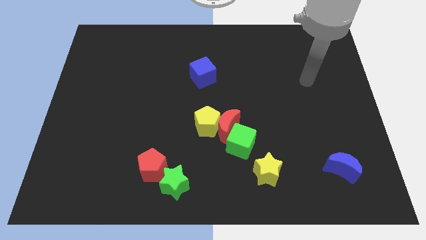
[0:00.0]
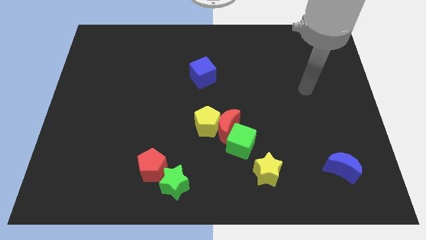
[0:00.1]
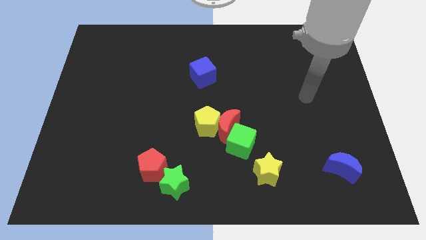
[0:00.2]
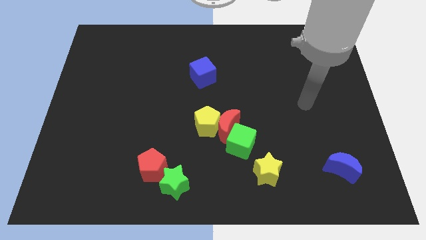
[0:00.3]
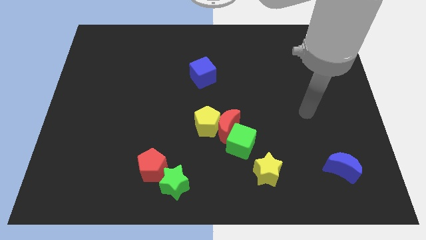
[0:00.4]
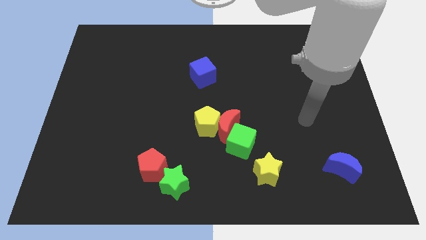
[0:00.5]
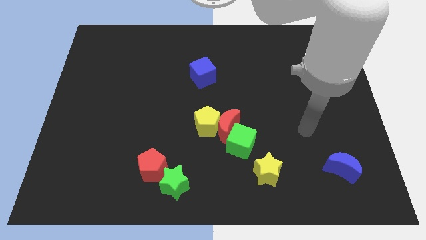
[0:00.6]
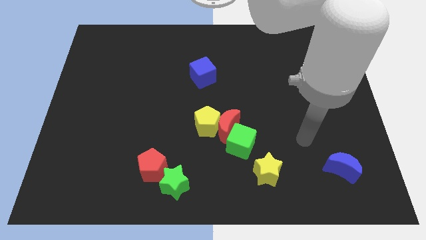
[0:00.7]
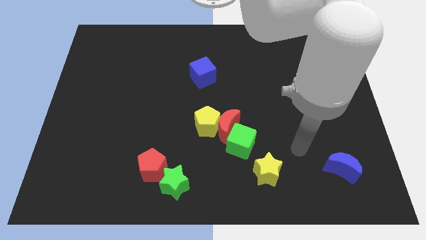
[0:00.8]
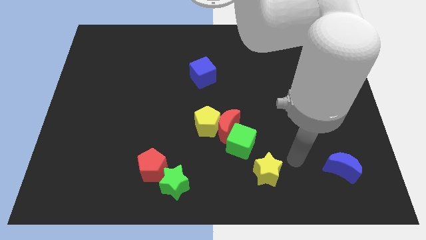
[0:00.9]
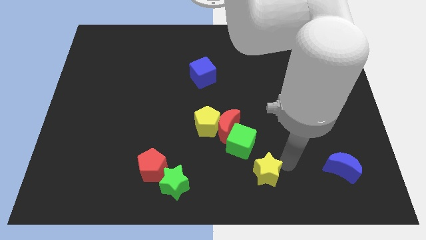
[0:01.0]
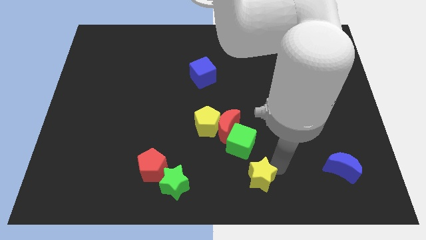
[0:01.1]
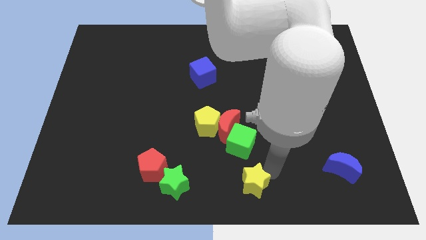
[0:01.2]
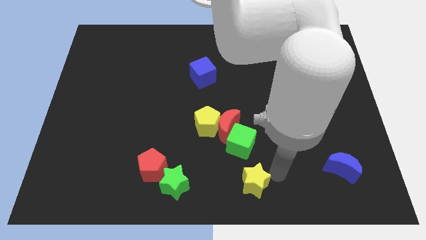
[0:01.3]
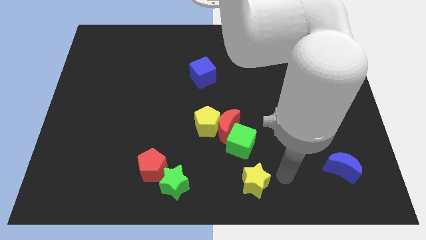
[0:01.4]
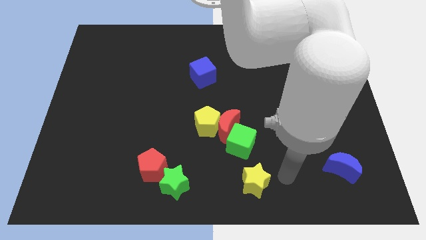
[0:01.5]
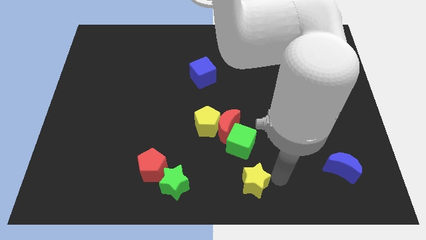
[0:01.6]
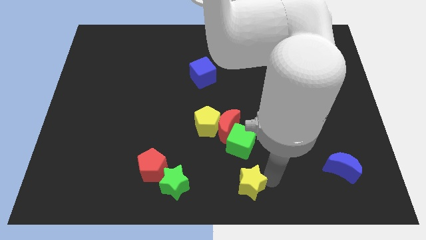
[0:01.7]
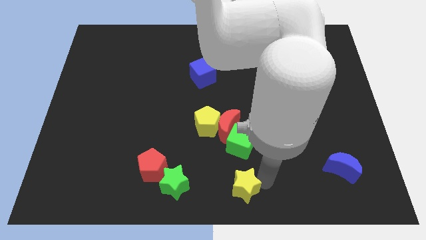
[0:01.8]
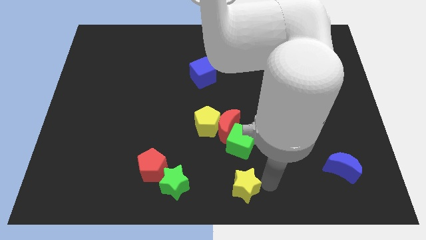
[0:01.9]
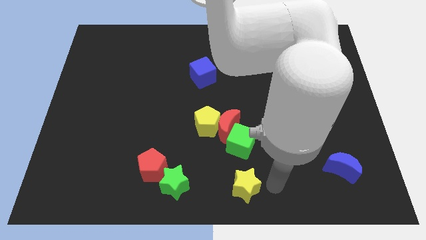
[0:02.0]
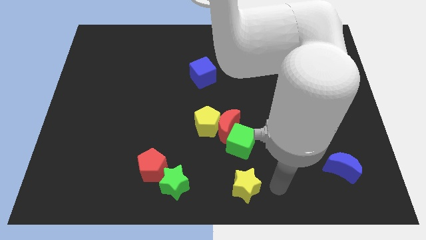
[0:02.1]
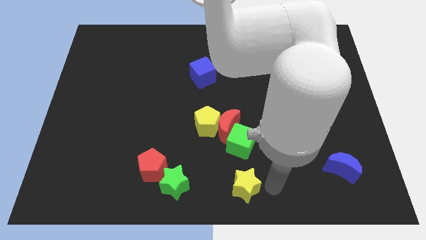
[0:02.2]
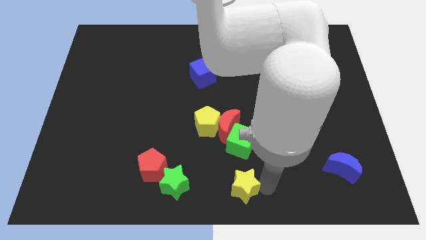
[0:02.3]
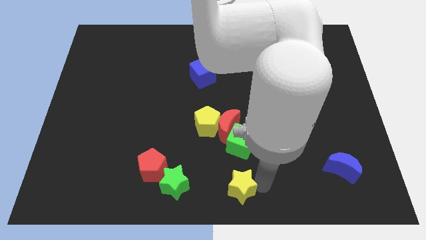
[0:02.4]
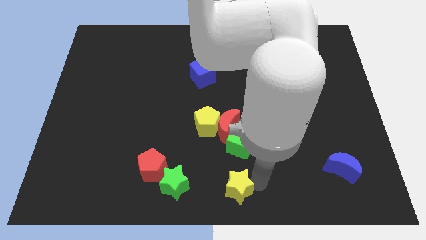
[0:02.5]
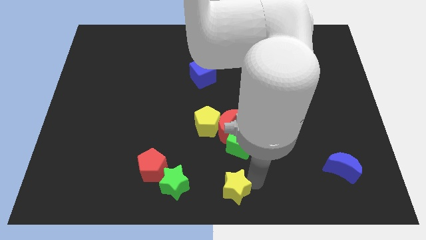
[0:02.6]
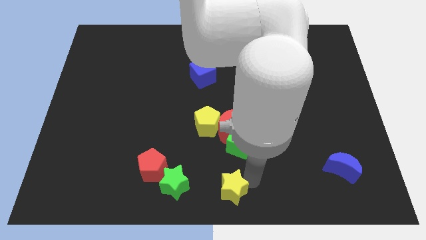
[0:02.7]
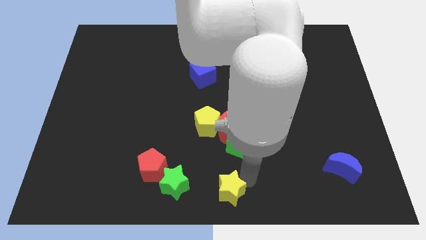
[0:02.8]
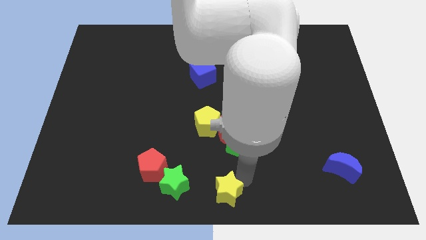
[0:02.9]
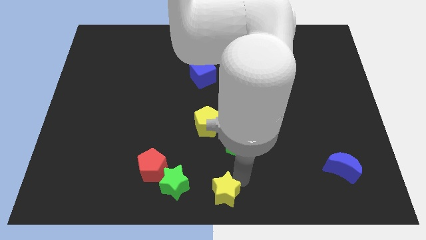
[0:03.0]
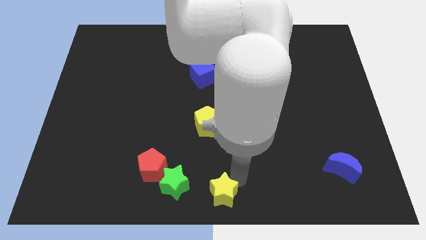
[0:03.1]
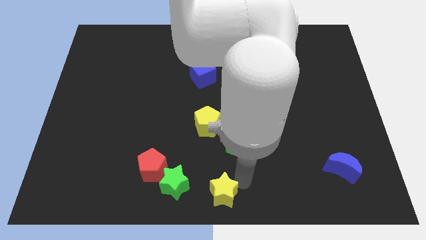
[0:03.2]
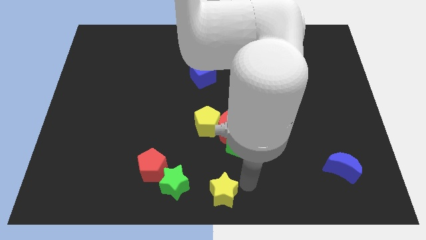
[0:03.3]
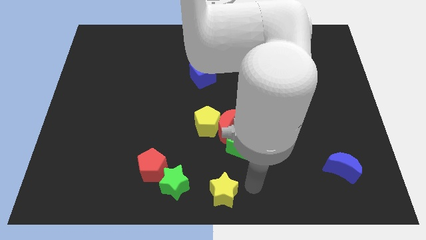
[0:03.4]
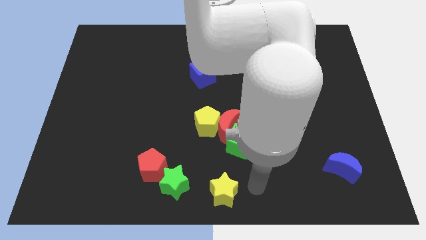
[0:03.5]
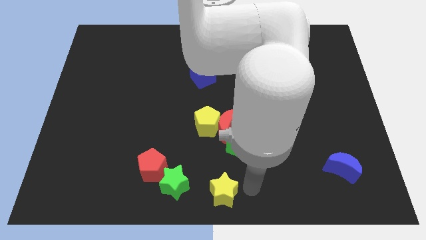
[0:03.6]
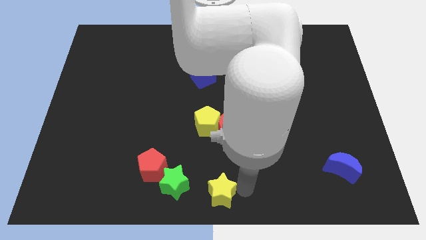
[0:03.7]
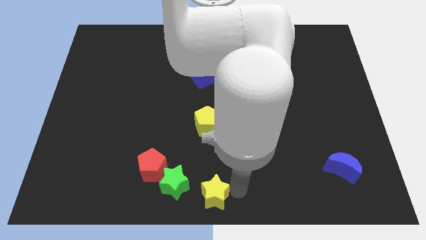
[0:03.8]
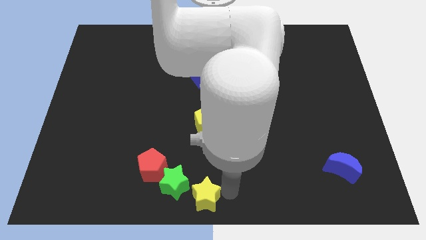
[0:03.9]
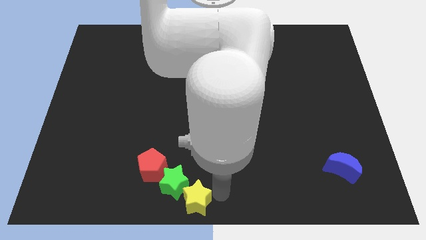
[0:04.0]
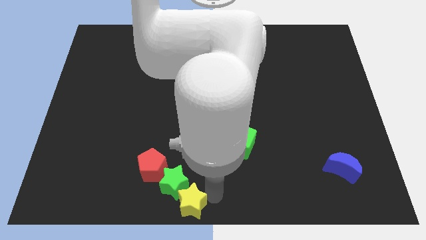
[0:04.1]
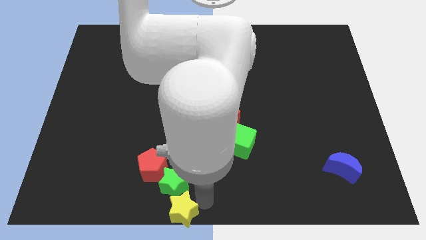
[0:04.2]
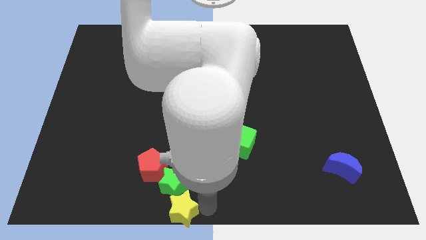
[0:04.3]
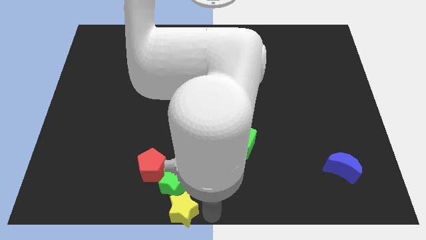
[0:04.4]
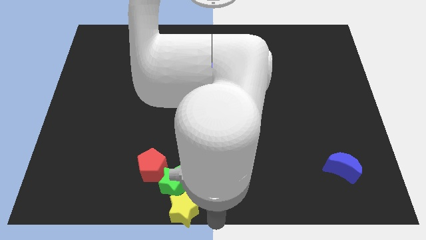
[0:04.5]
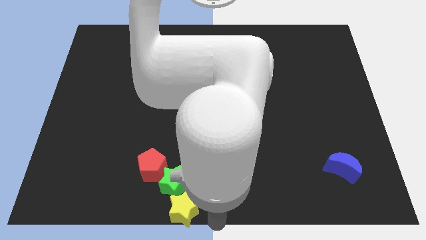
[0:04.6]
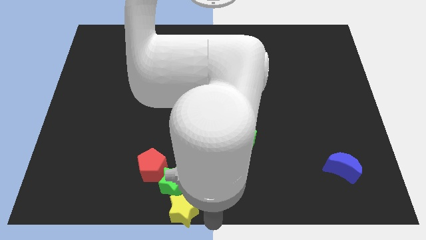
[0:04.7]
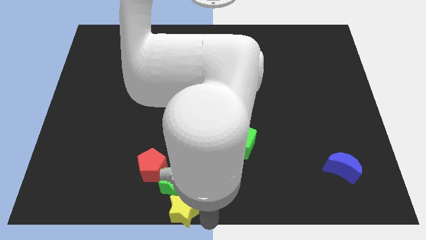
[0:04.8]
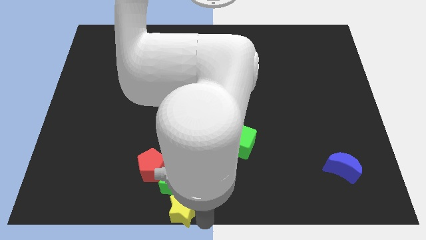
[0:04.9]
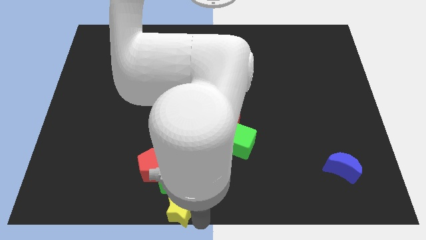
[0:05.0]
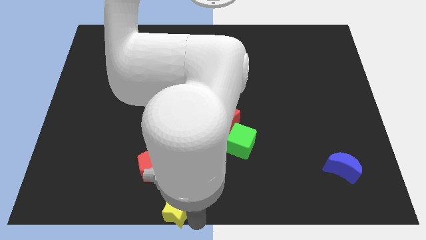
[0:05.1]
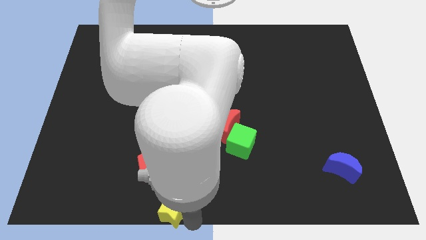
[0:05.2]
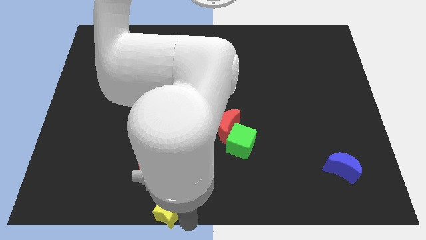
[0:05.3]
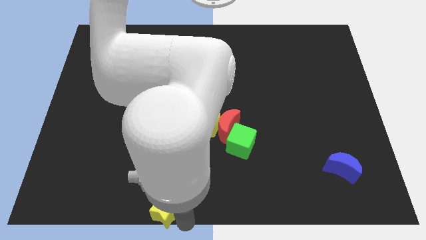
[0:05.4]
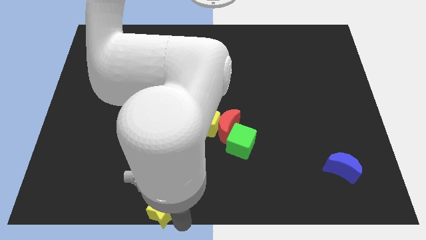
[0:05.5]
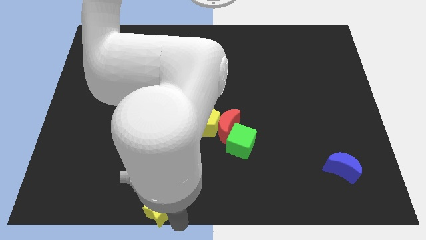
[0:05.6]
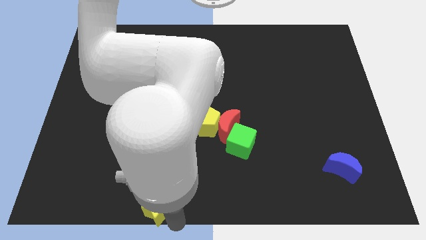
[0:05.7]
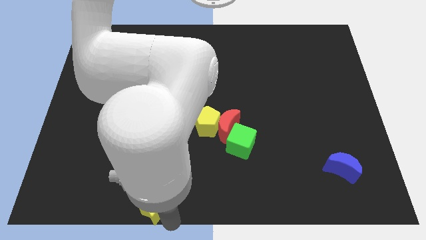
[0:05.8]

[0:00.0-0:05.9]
move the yellow star left

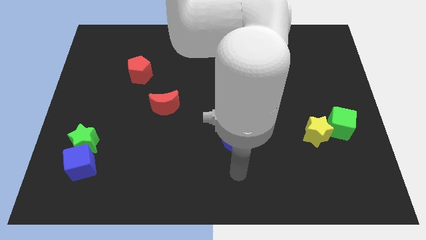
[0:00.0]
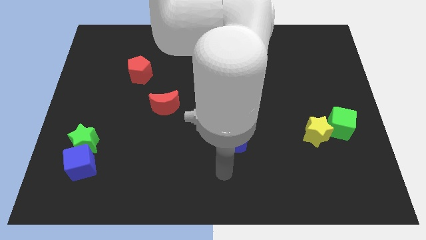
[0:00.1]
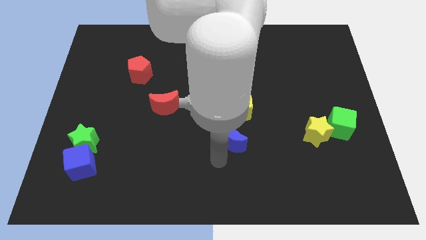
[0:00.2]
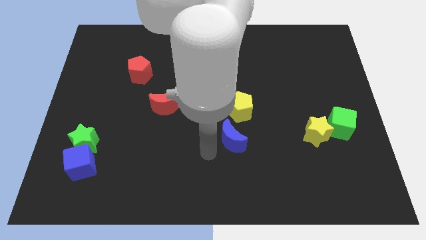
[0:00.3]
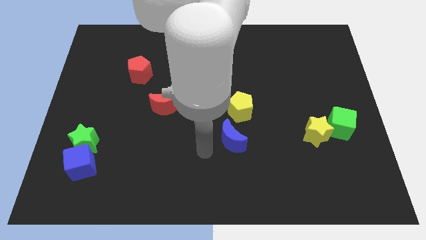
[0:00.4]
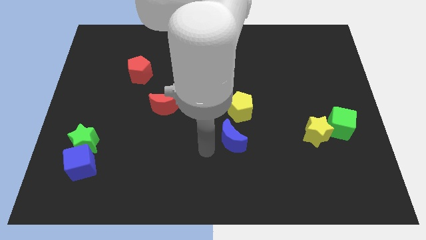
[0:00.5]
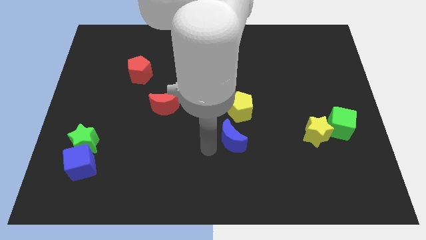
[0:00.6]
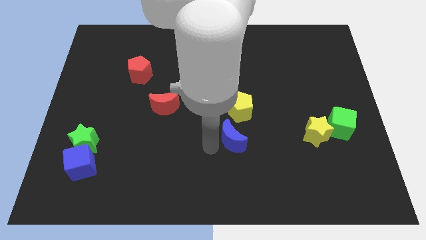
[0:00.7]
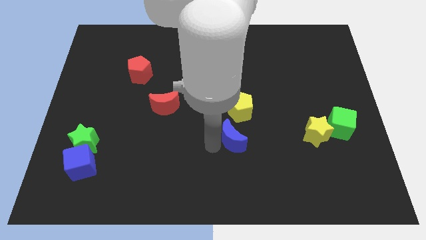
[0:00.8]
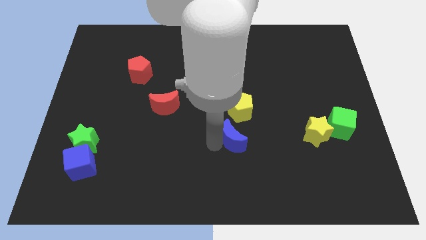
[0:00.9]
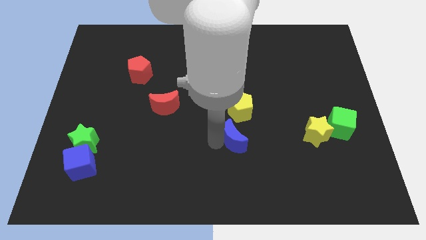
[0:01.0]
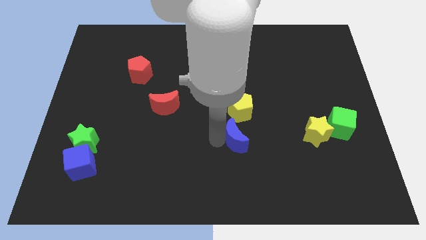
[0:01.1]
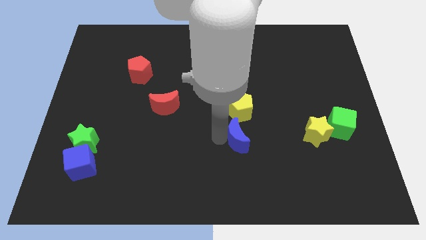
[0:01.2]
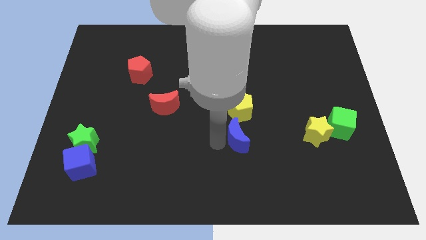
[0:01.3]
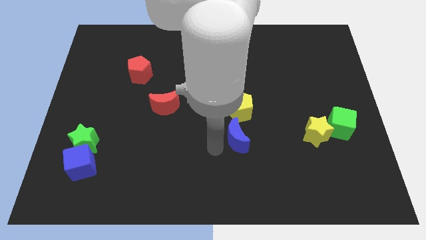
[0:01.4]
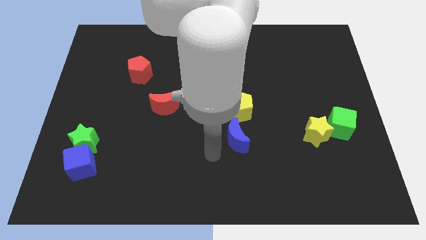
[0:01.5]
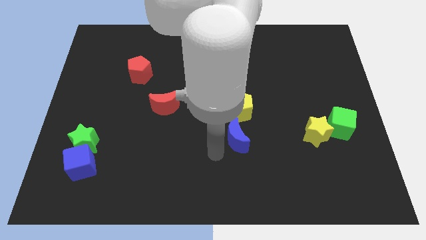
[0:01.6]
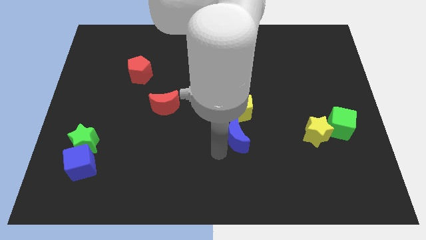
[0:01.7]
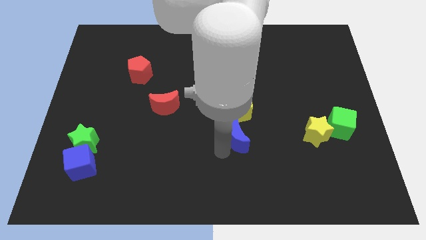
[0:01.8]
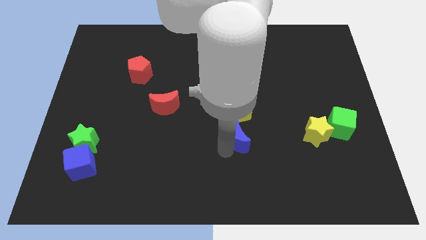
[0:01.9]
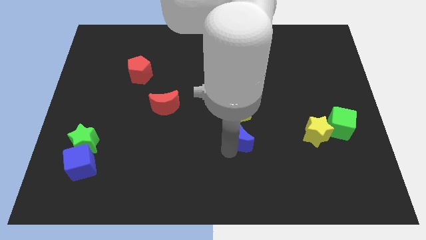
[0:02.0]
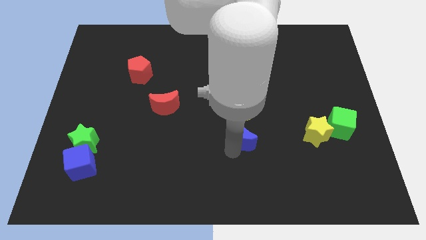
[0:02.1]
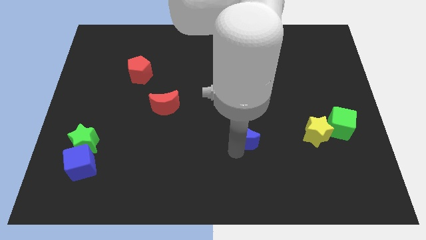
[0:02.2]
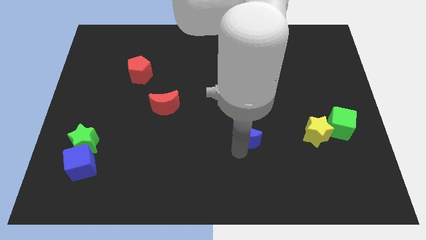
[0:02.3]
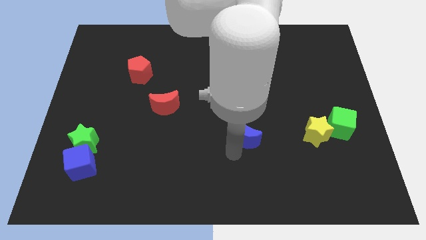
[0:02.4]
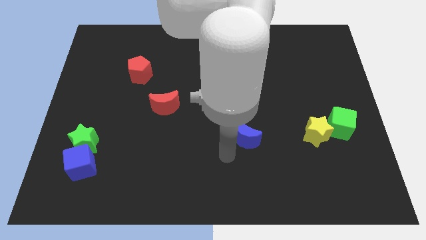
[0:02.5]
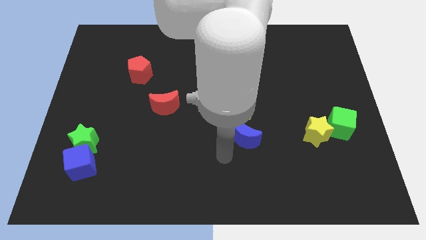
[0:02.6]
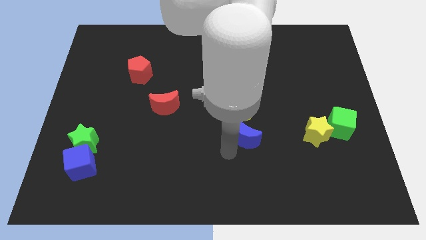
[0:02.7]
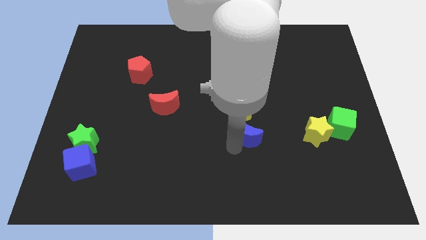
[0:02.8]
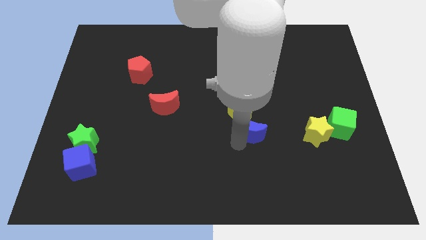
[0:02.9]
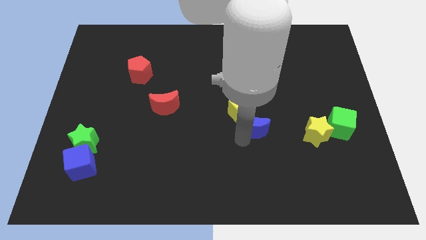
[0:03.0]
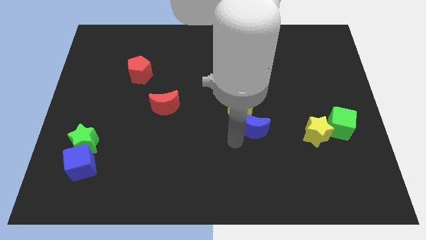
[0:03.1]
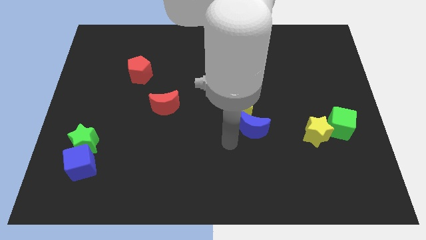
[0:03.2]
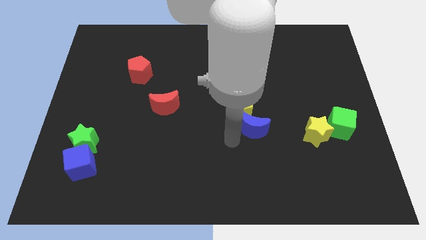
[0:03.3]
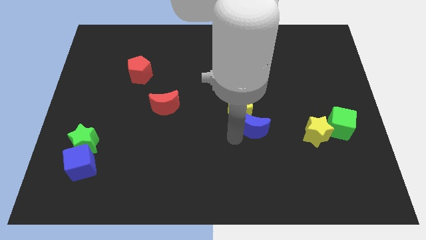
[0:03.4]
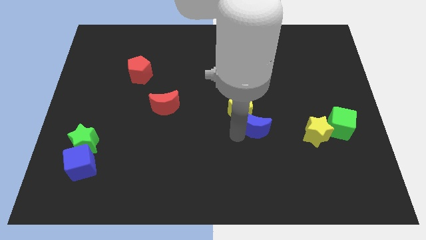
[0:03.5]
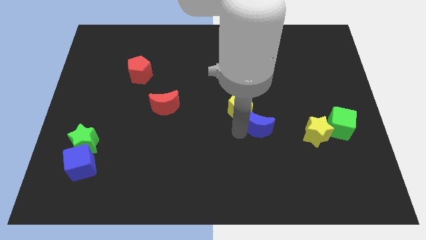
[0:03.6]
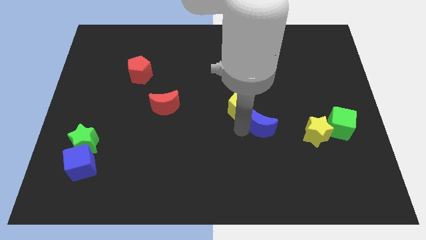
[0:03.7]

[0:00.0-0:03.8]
slightly slide the blue moon upwards and to the right
